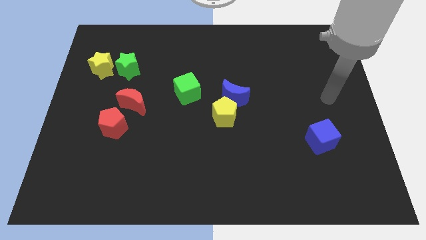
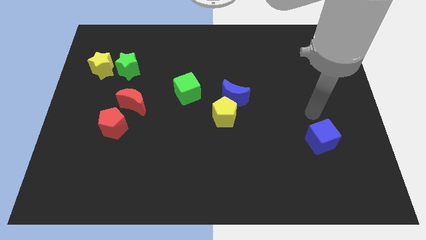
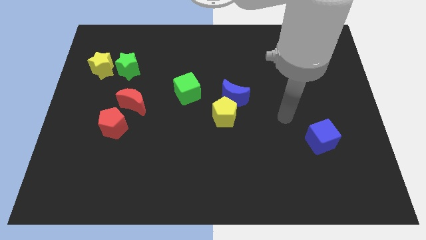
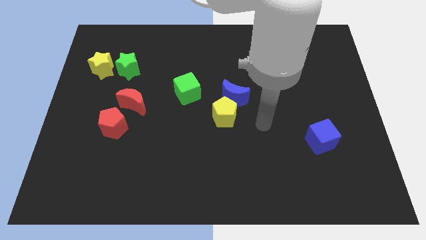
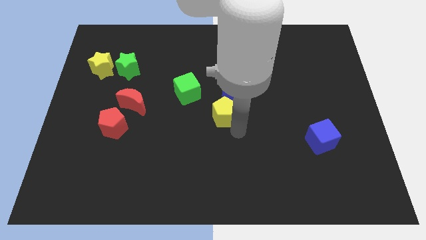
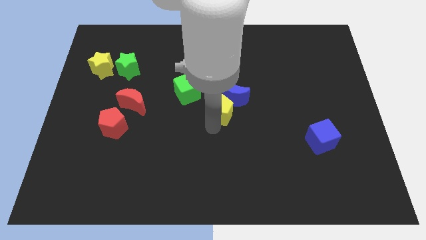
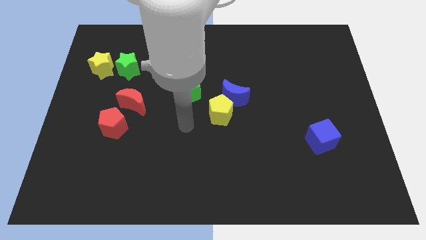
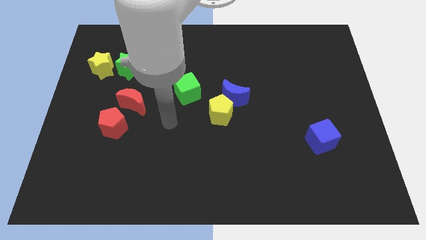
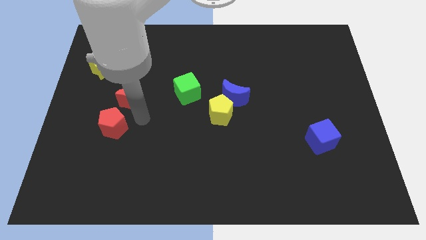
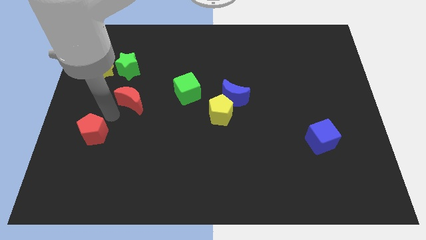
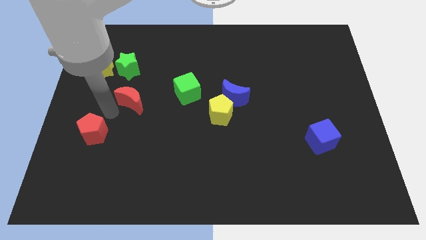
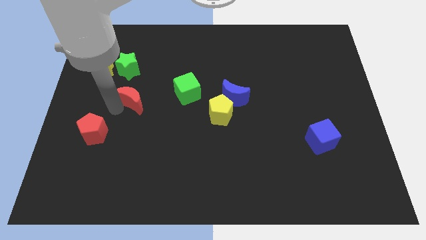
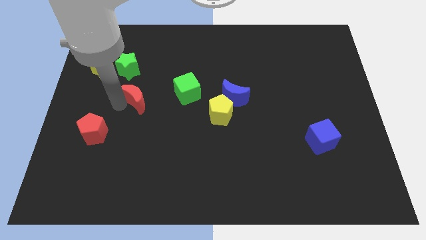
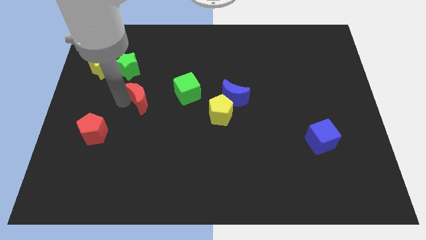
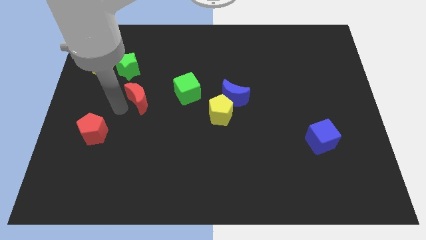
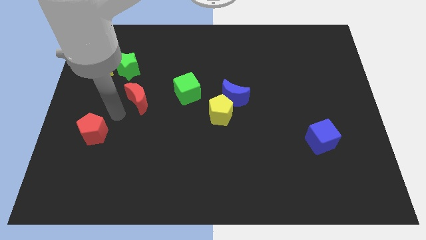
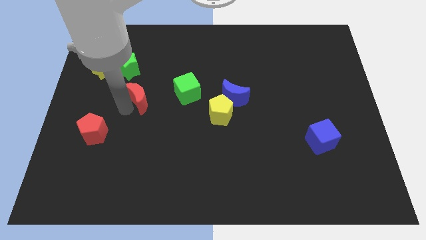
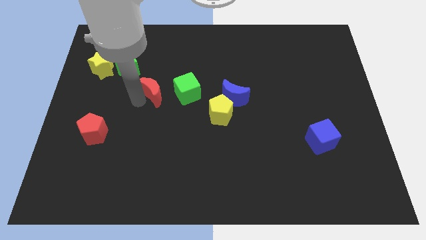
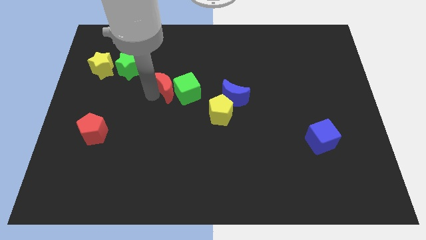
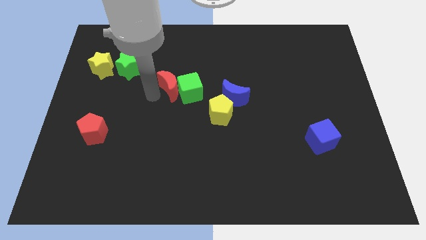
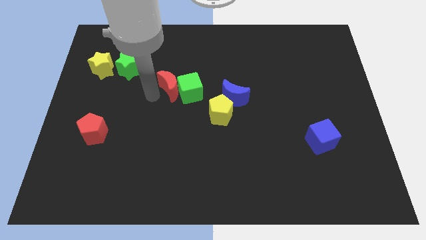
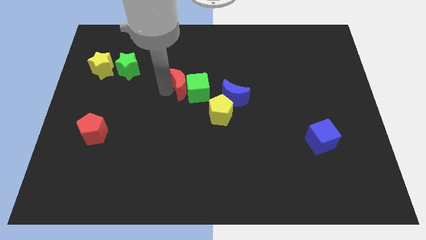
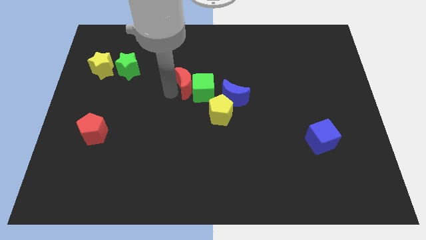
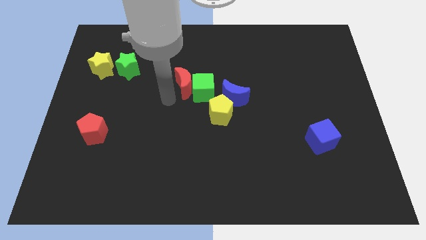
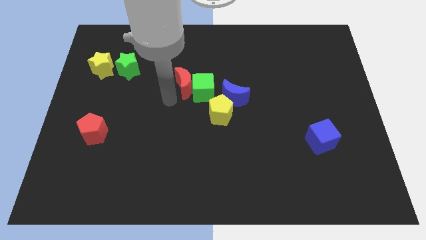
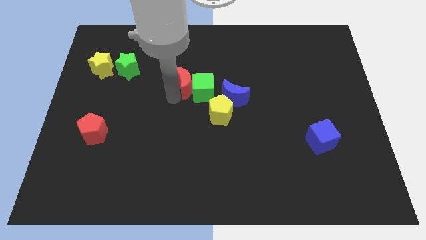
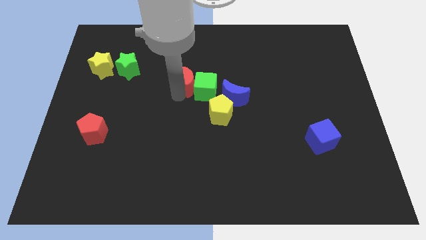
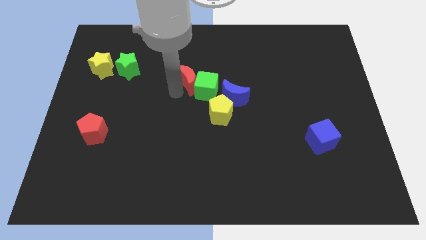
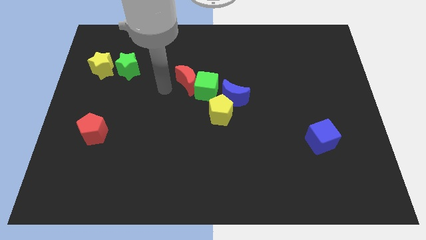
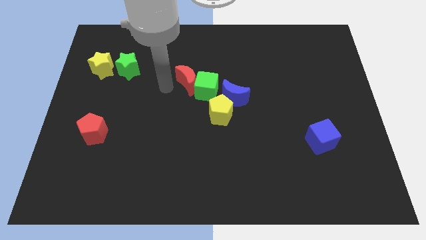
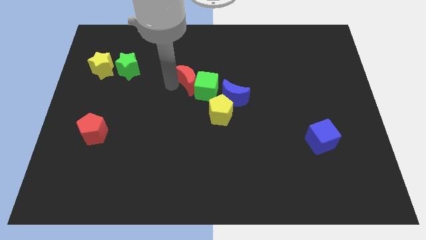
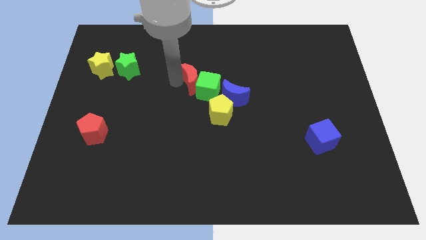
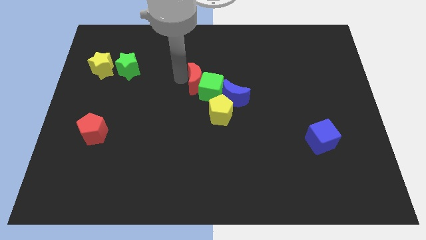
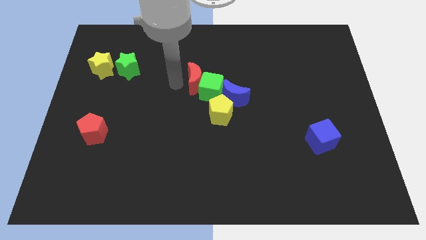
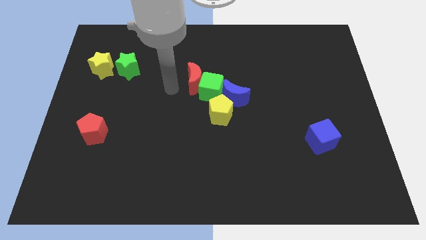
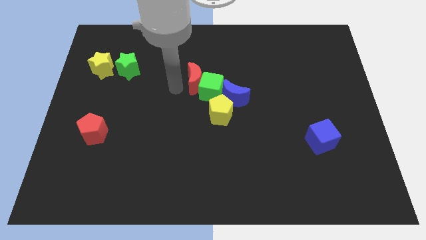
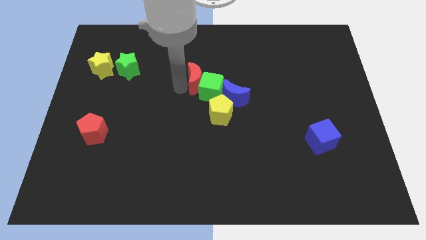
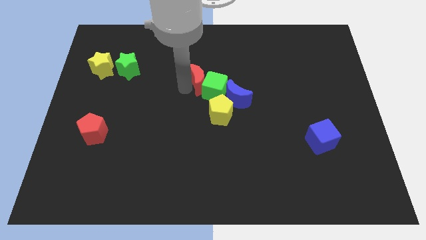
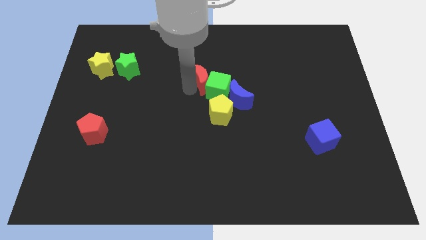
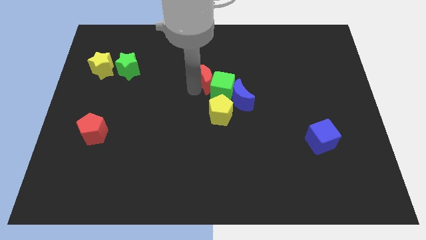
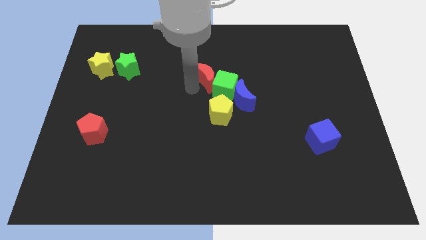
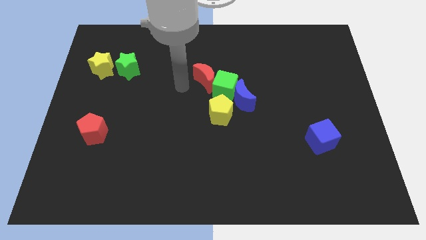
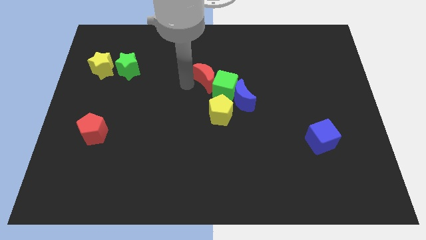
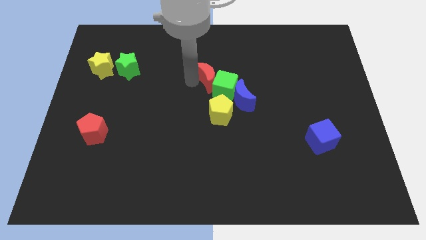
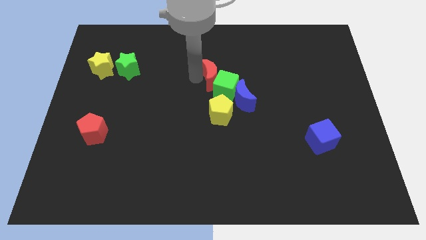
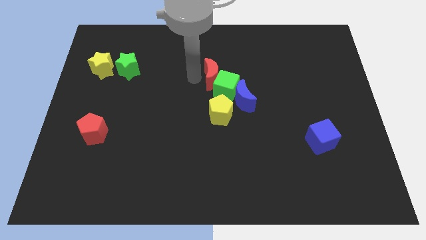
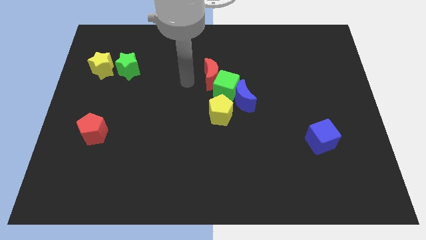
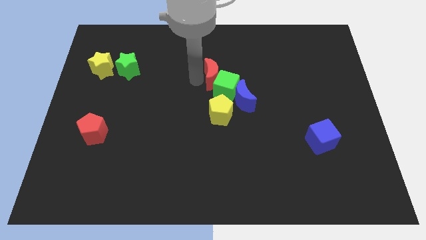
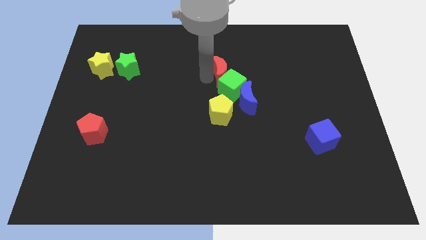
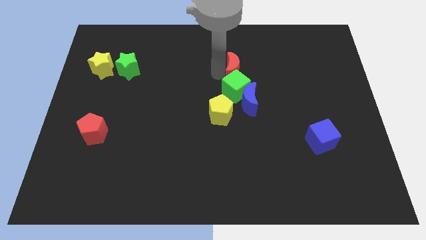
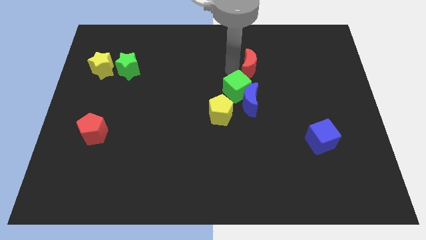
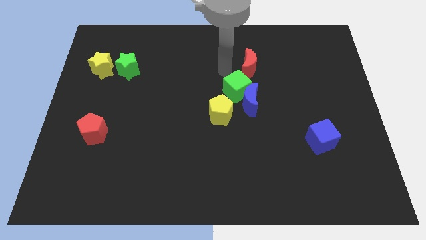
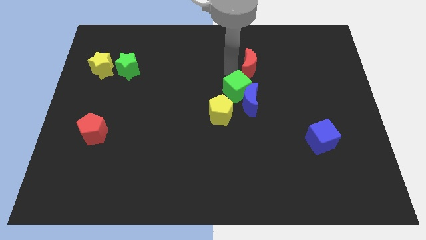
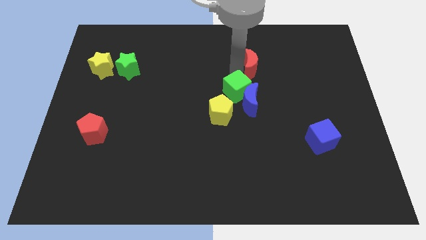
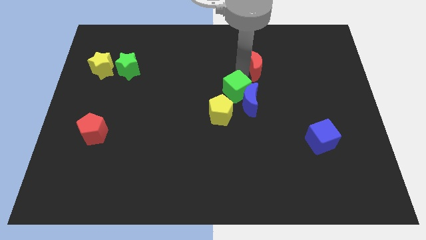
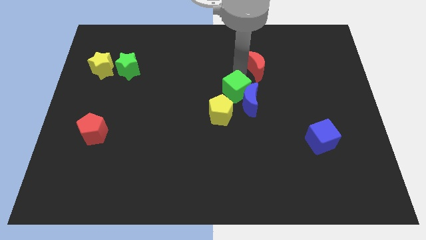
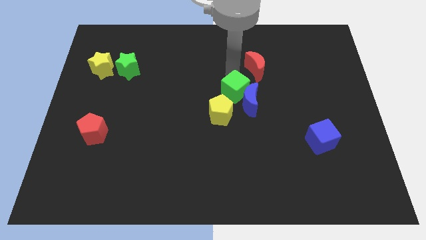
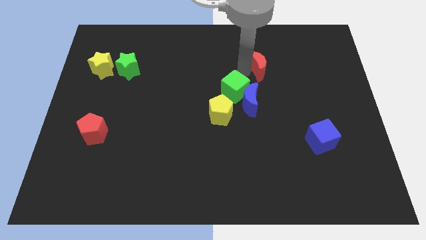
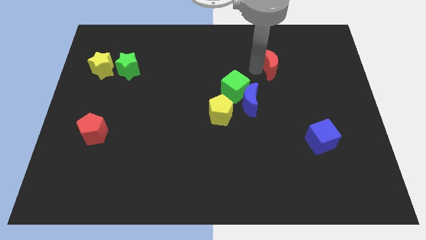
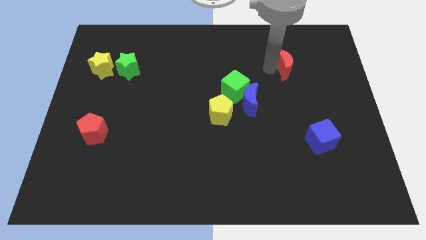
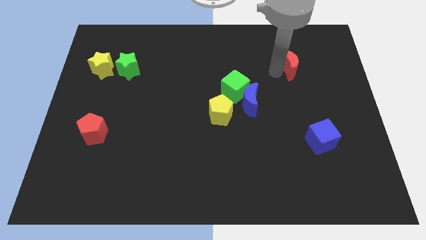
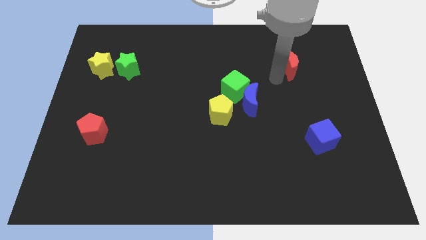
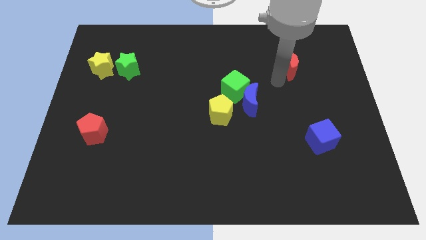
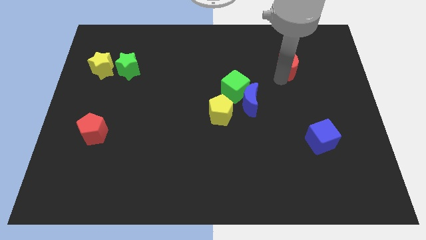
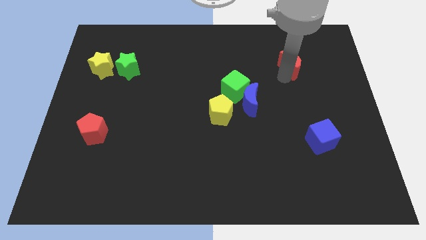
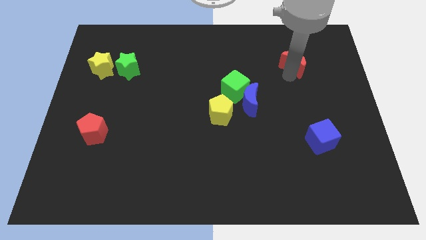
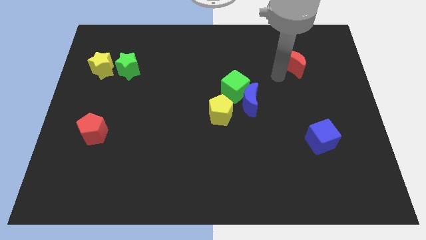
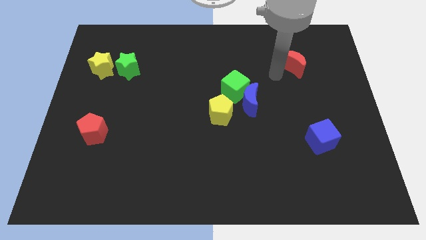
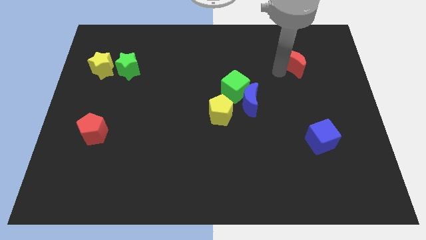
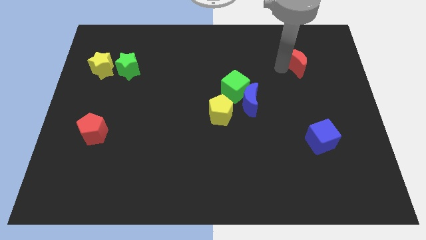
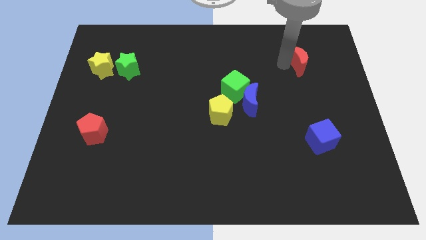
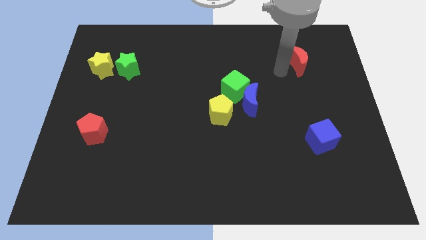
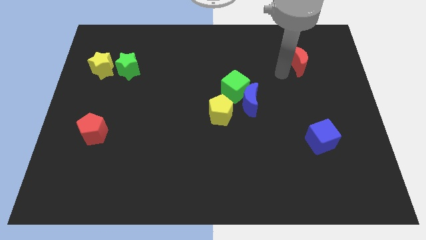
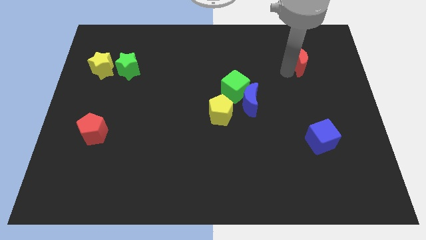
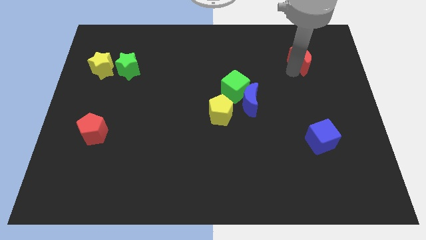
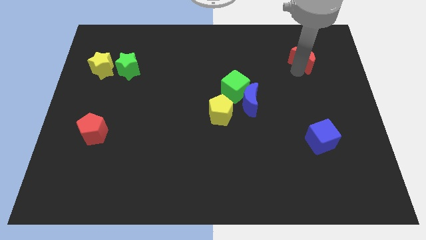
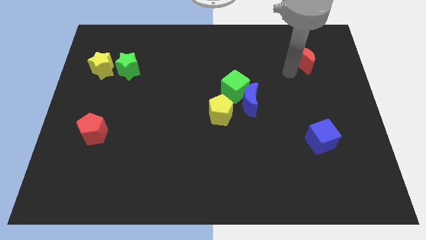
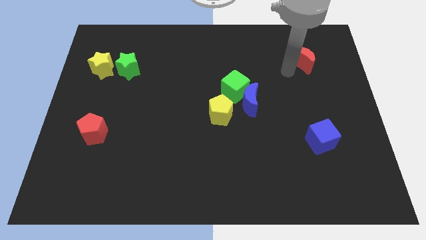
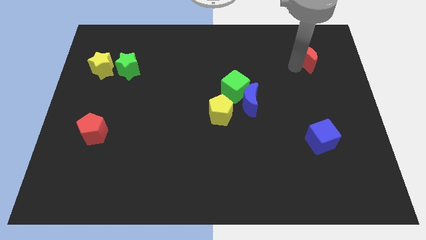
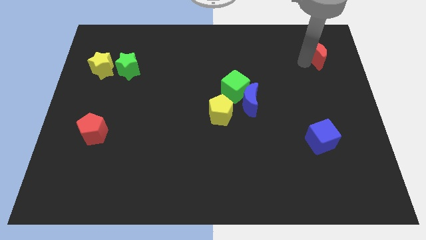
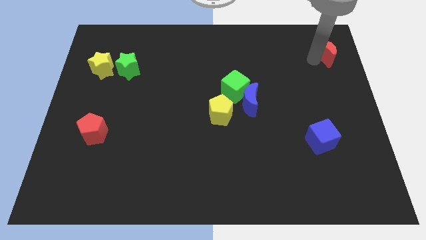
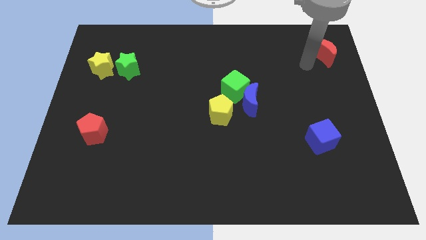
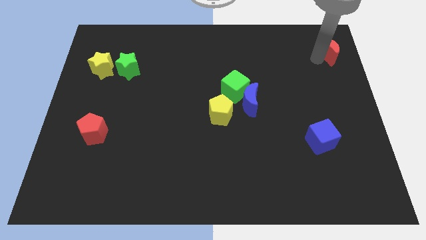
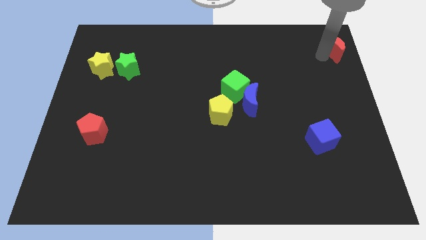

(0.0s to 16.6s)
move the red moon to the top right corner
